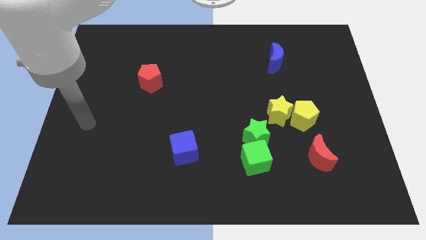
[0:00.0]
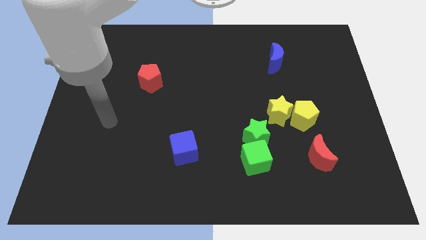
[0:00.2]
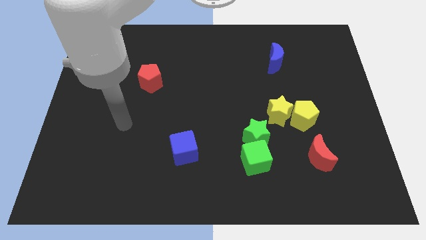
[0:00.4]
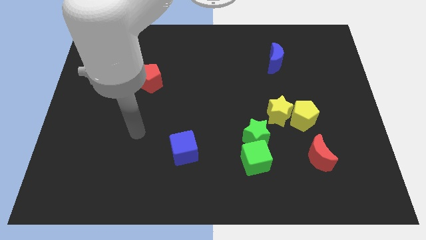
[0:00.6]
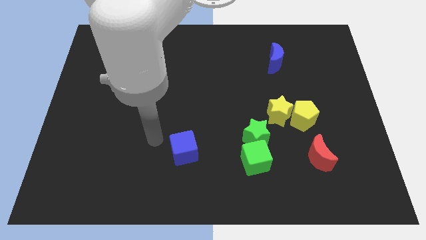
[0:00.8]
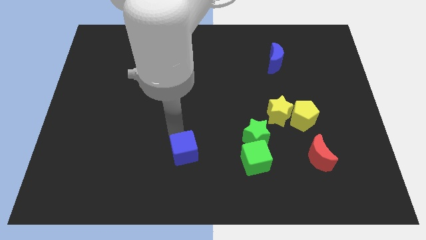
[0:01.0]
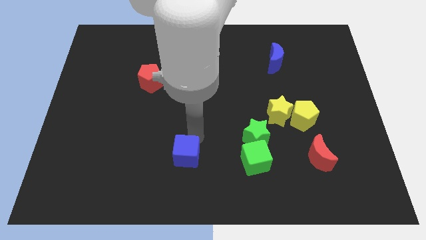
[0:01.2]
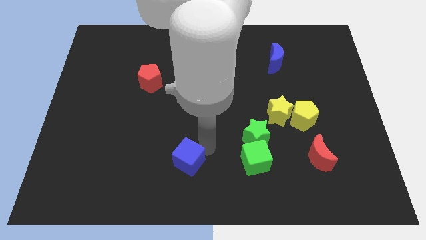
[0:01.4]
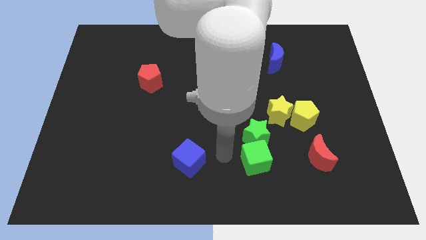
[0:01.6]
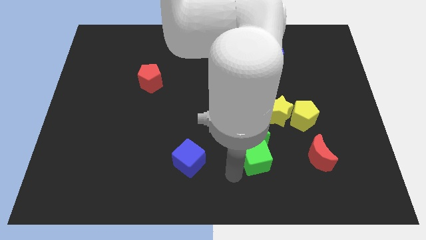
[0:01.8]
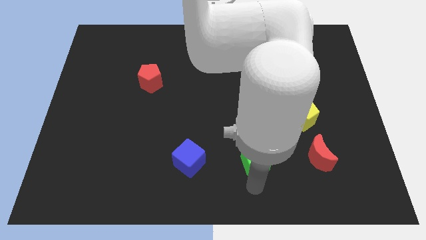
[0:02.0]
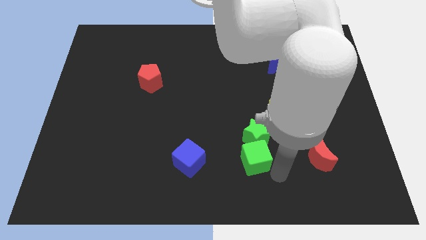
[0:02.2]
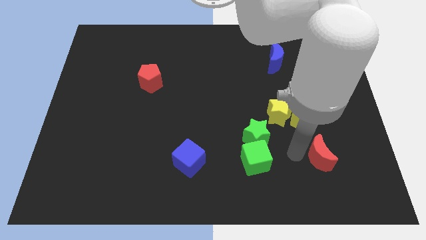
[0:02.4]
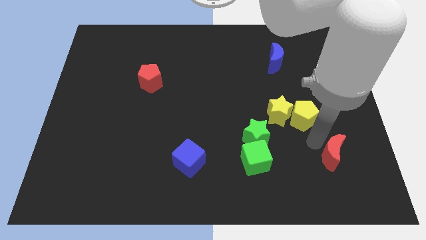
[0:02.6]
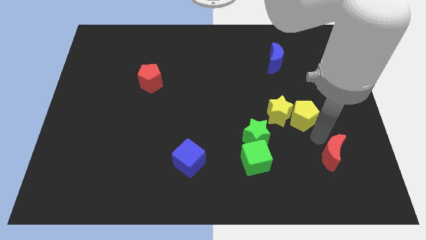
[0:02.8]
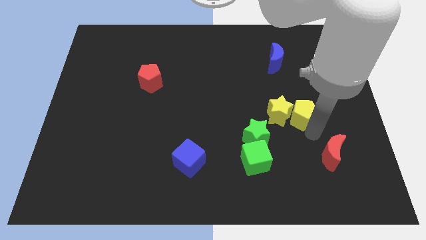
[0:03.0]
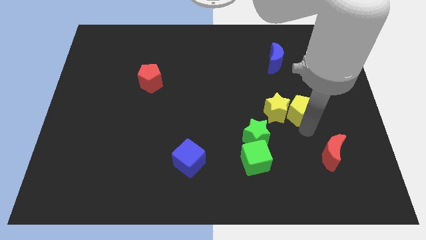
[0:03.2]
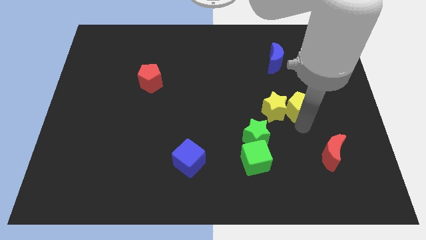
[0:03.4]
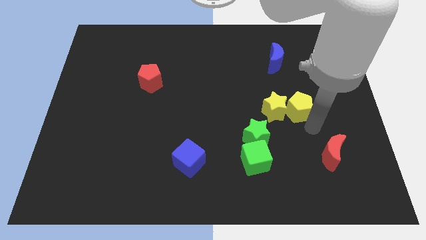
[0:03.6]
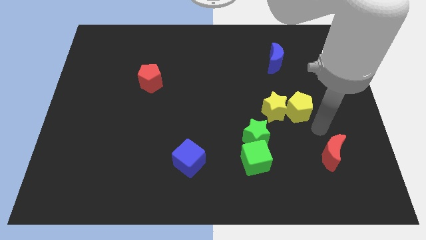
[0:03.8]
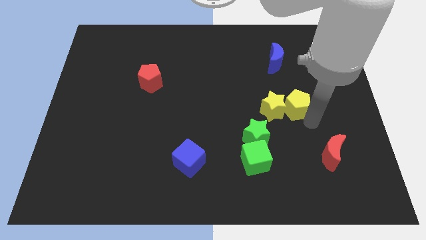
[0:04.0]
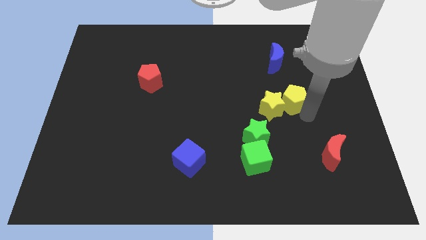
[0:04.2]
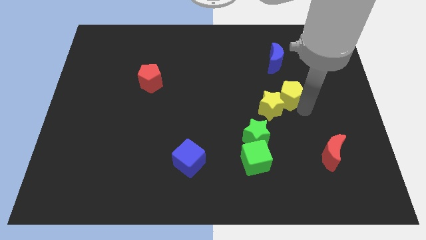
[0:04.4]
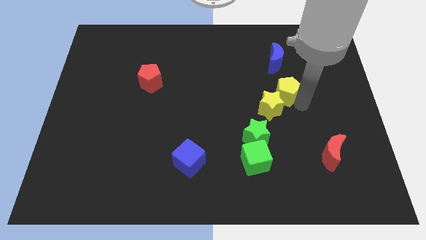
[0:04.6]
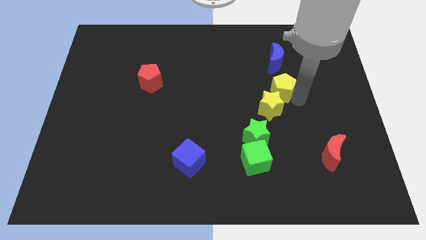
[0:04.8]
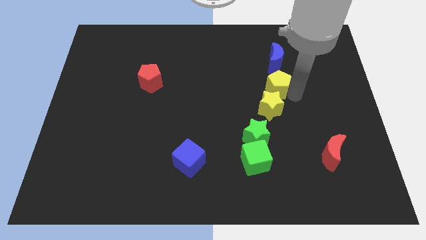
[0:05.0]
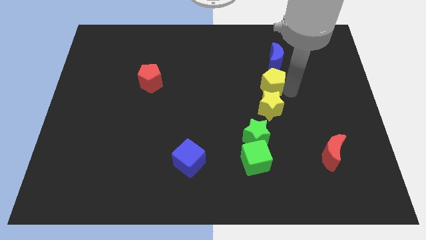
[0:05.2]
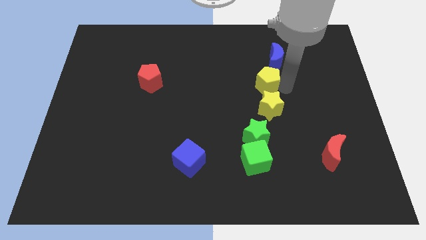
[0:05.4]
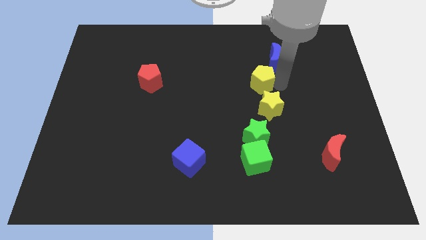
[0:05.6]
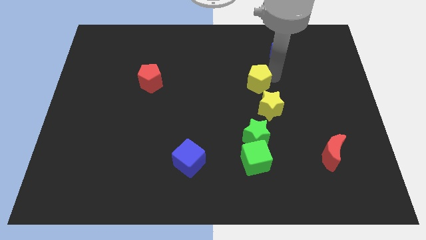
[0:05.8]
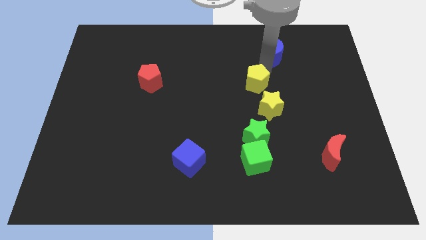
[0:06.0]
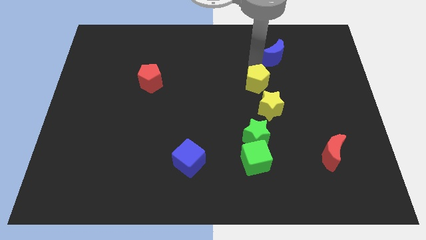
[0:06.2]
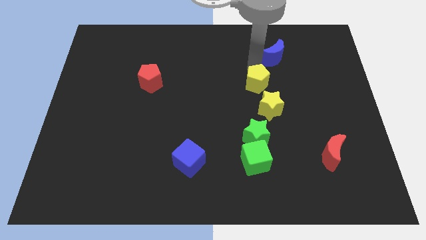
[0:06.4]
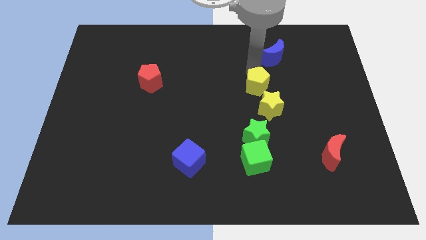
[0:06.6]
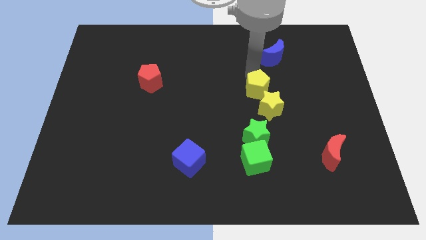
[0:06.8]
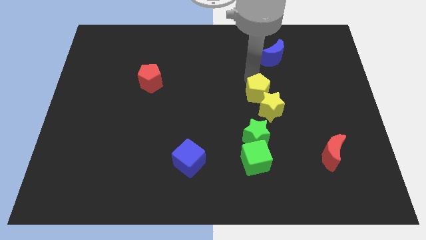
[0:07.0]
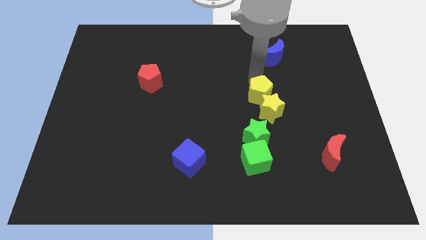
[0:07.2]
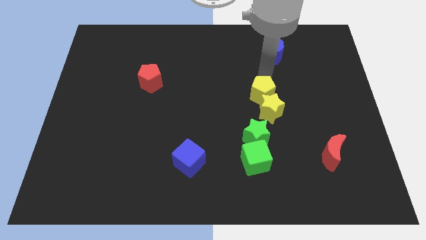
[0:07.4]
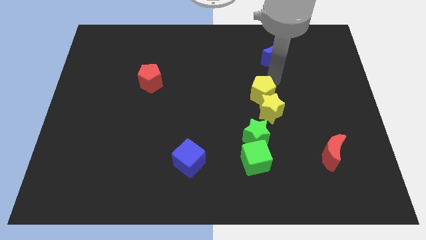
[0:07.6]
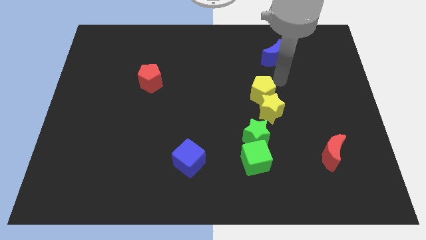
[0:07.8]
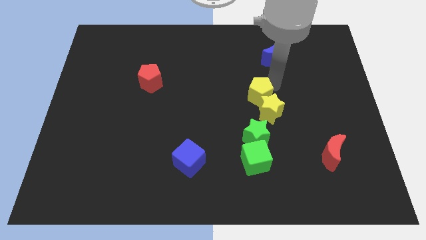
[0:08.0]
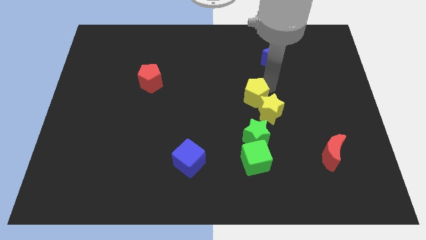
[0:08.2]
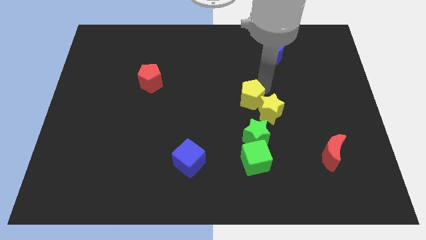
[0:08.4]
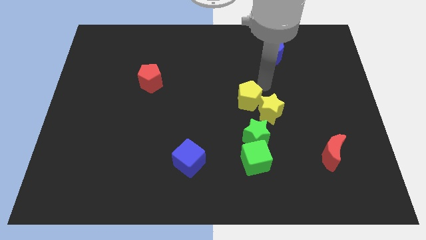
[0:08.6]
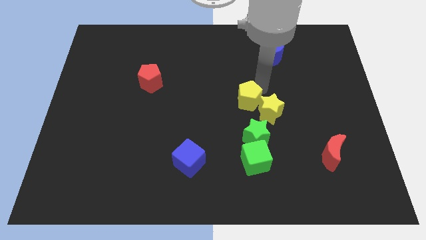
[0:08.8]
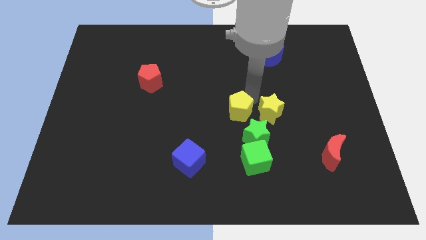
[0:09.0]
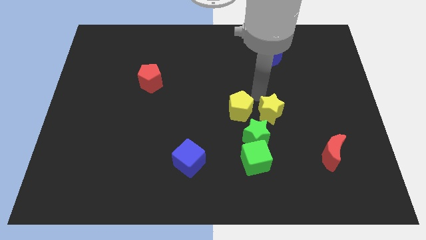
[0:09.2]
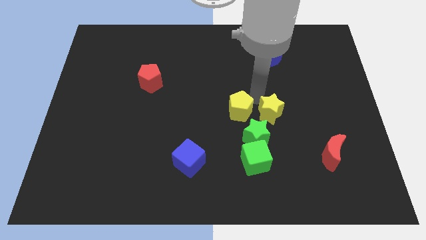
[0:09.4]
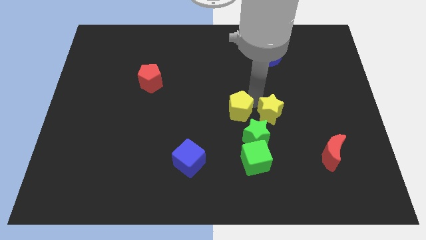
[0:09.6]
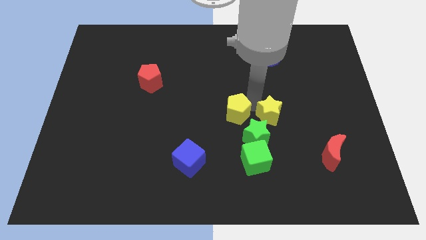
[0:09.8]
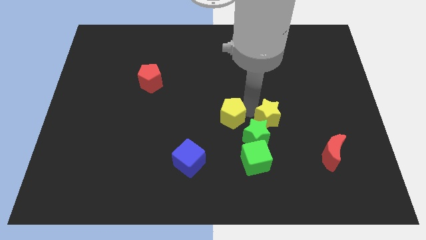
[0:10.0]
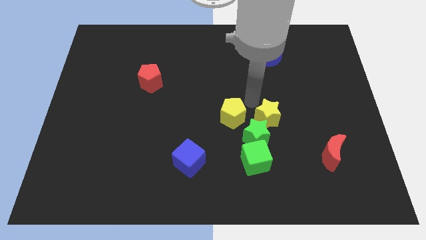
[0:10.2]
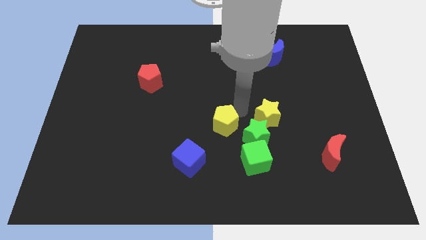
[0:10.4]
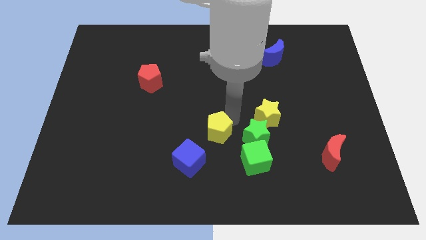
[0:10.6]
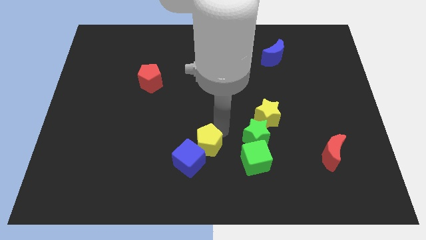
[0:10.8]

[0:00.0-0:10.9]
push the yellow pentagon to the blue cube
